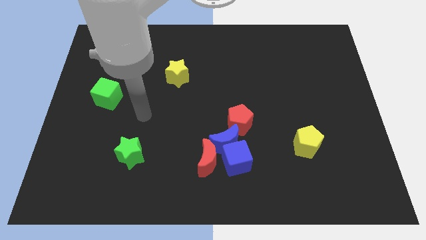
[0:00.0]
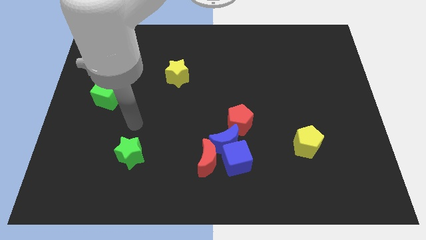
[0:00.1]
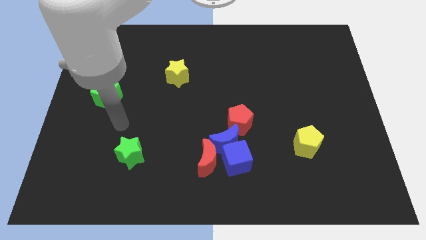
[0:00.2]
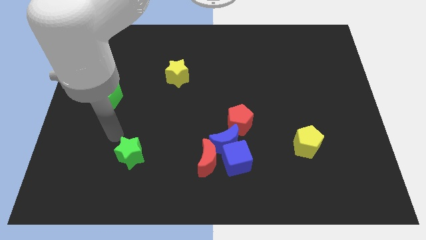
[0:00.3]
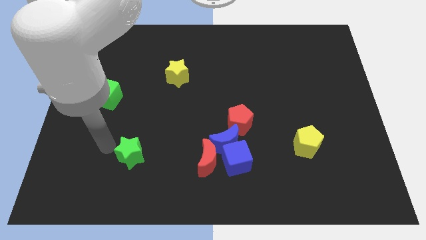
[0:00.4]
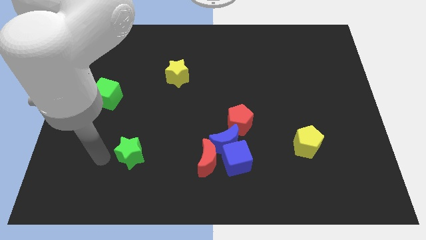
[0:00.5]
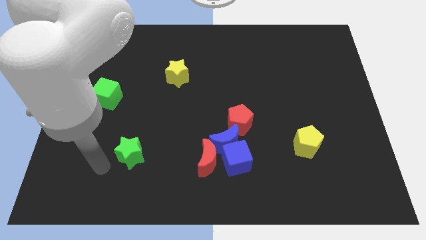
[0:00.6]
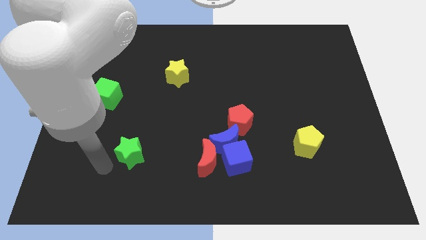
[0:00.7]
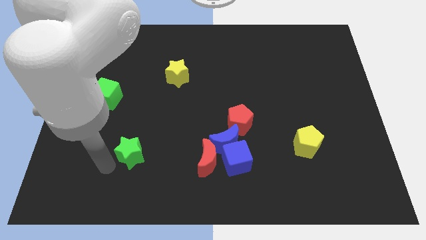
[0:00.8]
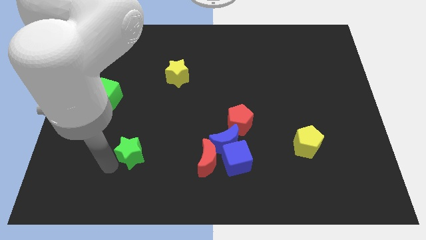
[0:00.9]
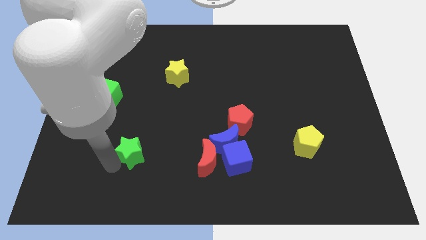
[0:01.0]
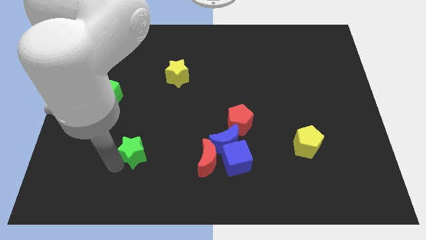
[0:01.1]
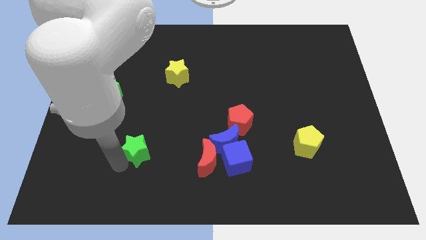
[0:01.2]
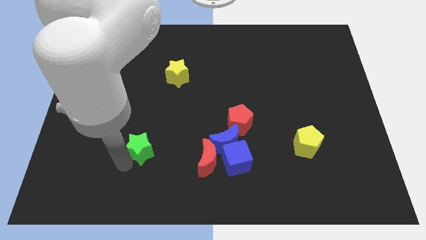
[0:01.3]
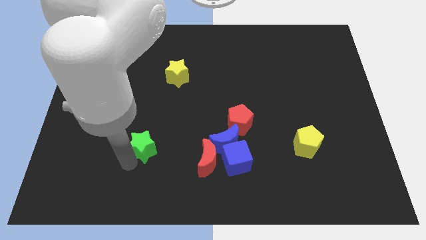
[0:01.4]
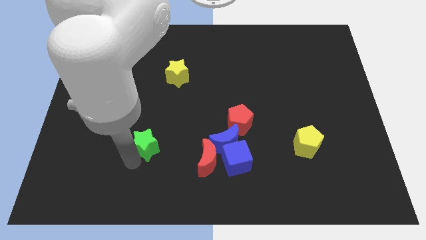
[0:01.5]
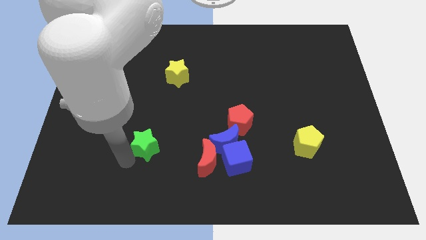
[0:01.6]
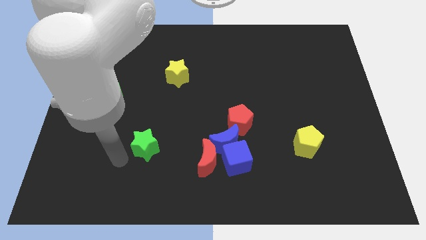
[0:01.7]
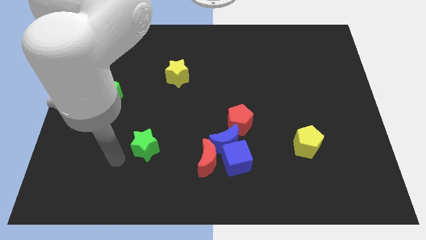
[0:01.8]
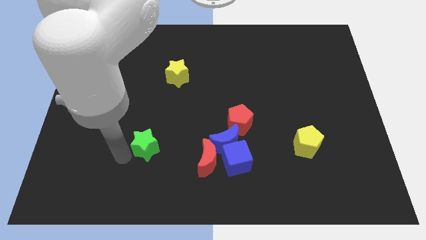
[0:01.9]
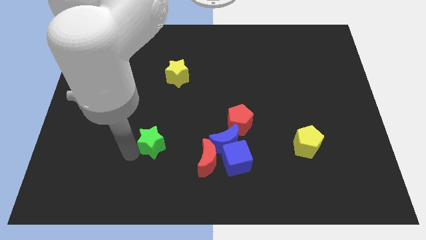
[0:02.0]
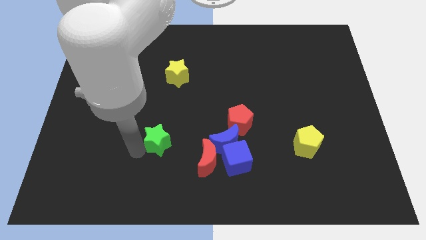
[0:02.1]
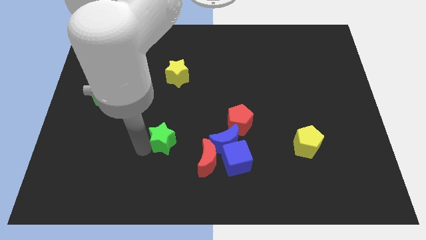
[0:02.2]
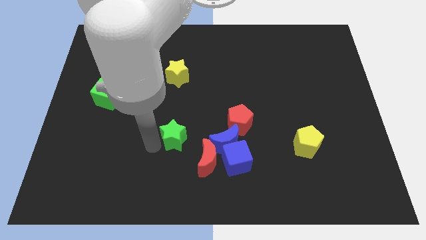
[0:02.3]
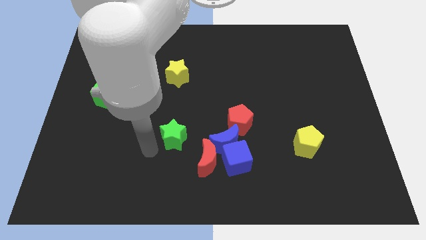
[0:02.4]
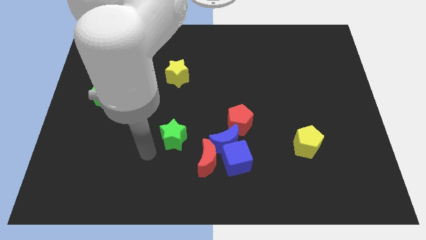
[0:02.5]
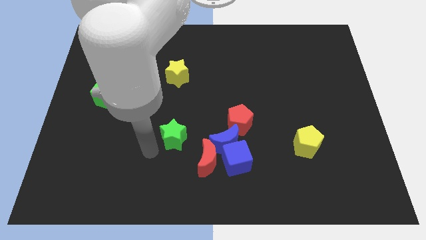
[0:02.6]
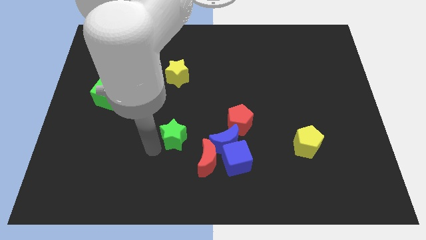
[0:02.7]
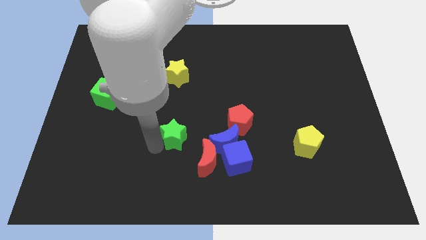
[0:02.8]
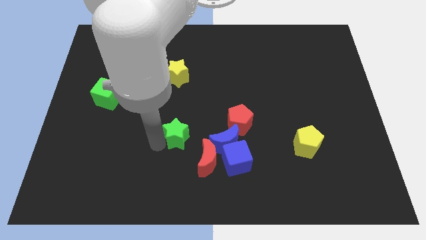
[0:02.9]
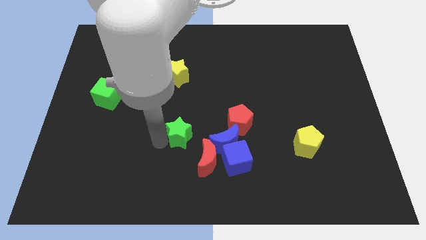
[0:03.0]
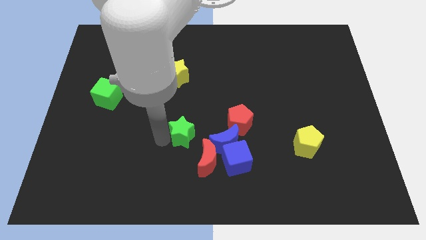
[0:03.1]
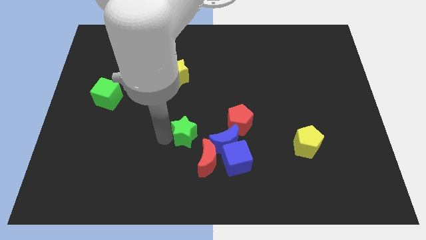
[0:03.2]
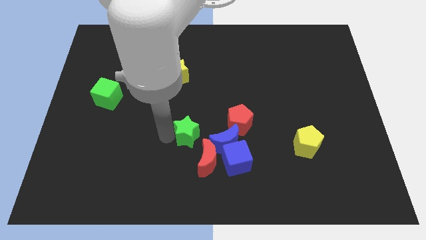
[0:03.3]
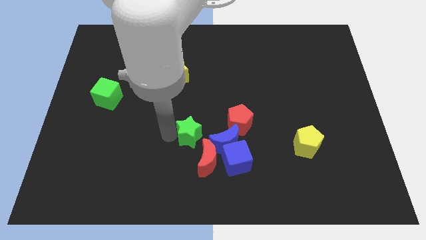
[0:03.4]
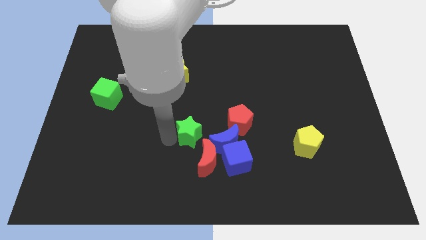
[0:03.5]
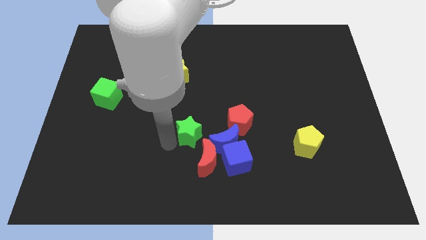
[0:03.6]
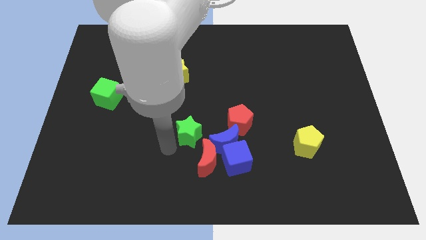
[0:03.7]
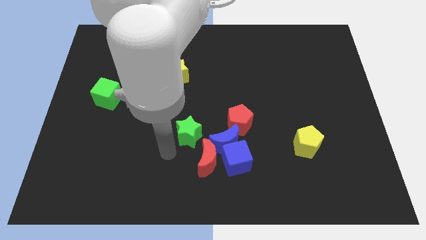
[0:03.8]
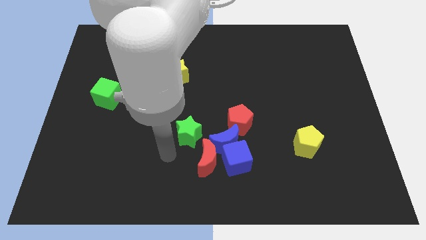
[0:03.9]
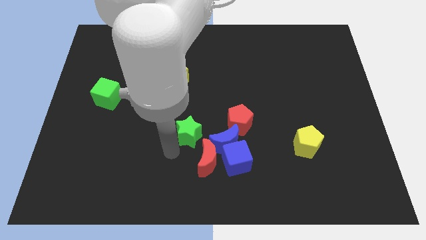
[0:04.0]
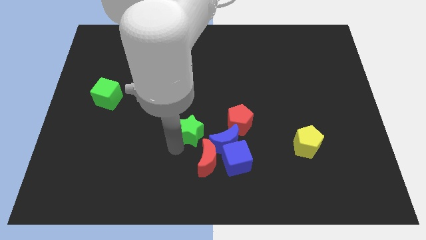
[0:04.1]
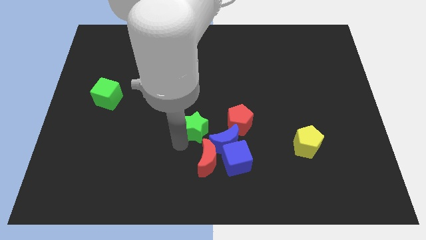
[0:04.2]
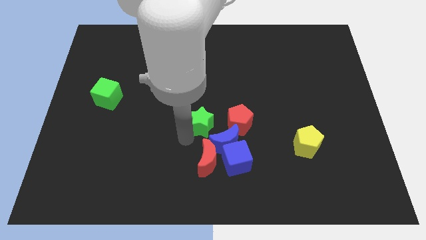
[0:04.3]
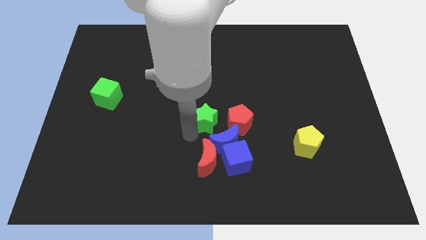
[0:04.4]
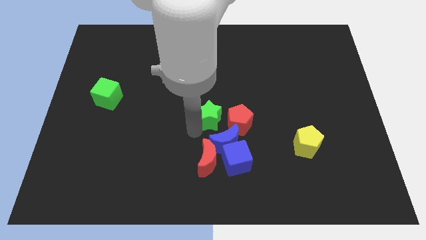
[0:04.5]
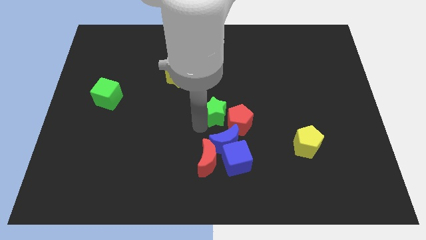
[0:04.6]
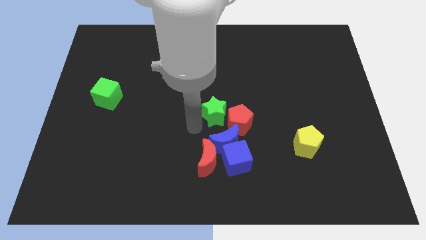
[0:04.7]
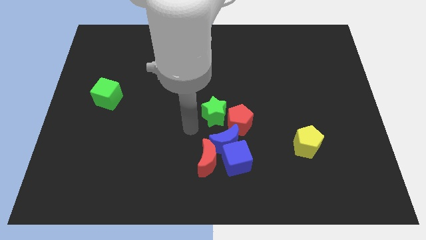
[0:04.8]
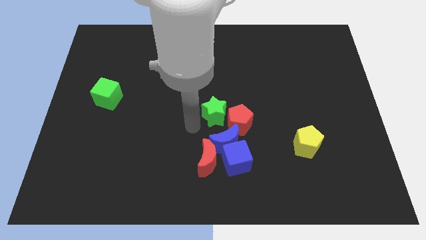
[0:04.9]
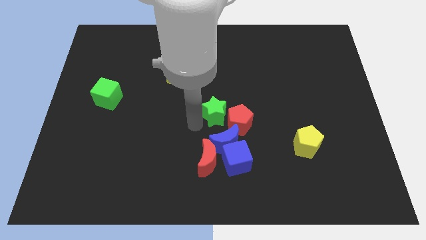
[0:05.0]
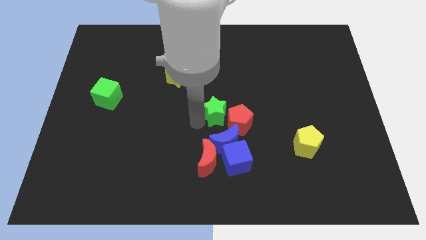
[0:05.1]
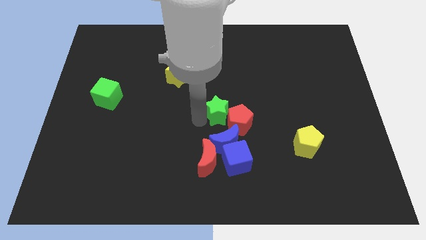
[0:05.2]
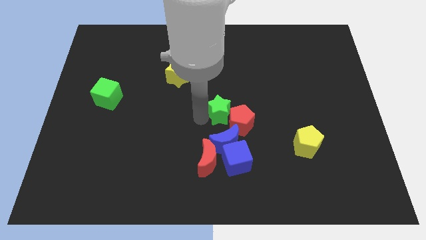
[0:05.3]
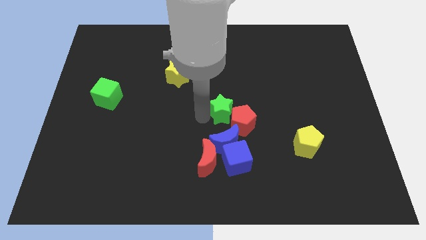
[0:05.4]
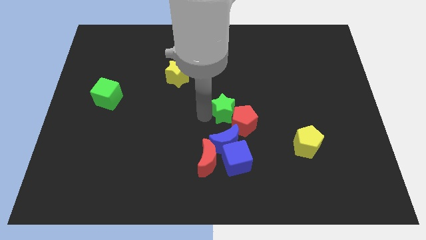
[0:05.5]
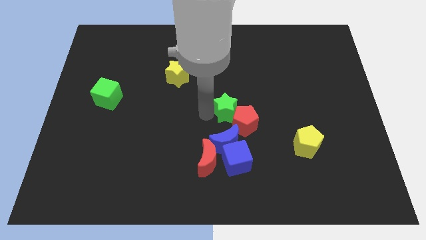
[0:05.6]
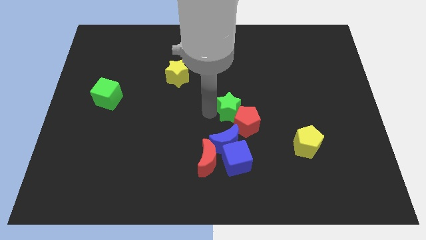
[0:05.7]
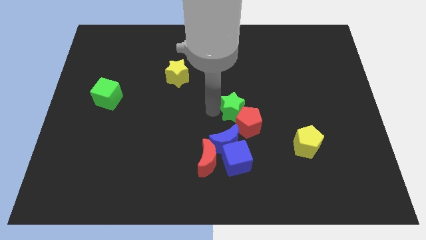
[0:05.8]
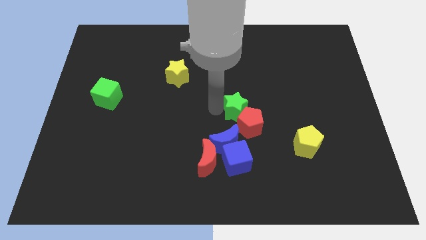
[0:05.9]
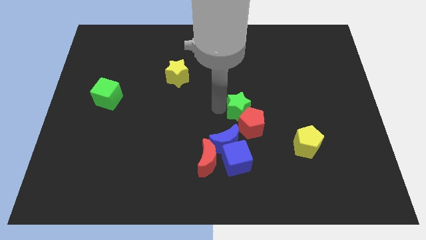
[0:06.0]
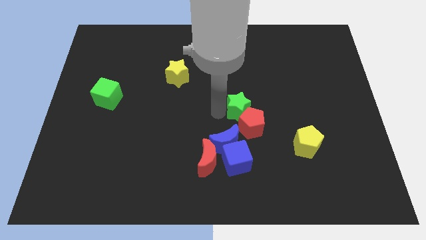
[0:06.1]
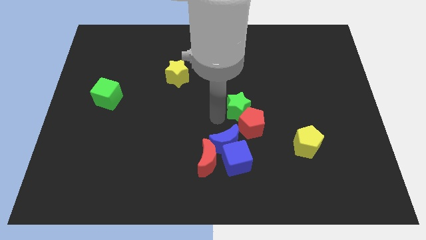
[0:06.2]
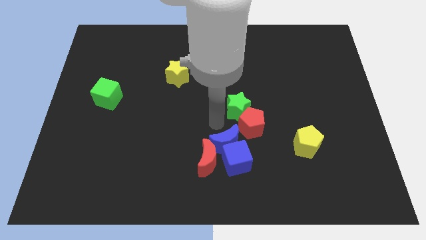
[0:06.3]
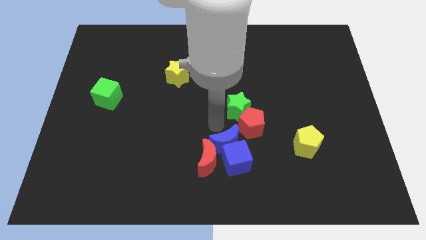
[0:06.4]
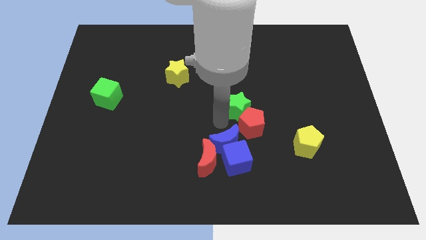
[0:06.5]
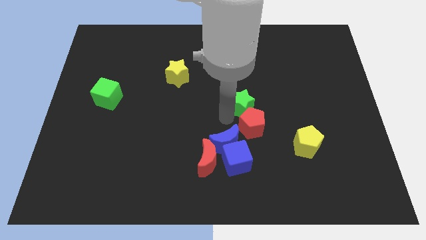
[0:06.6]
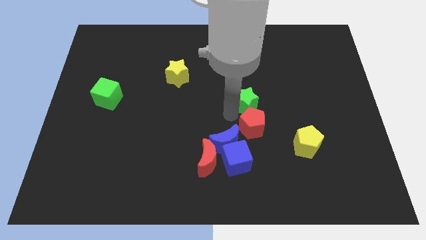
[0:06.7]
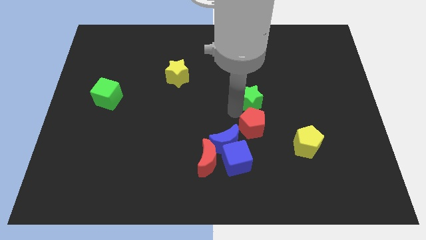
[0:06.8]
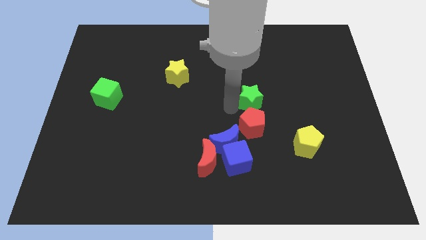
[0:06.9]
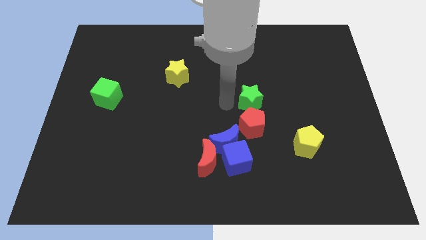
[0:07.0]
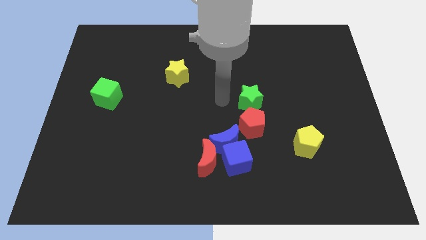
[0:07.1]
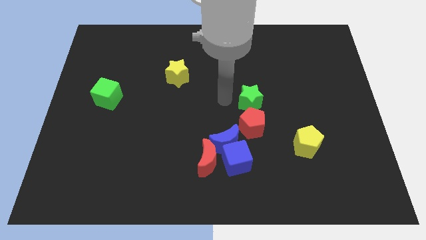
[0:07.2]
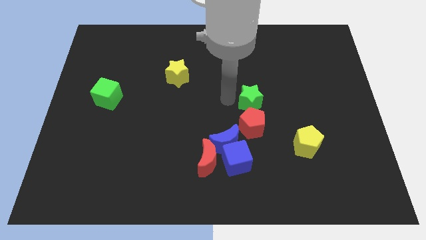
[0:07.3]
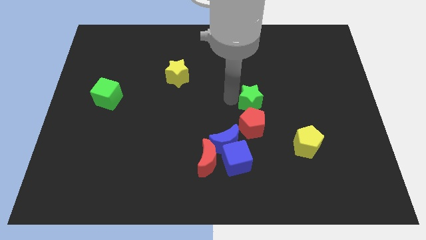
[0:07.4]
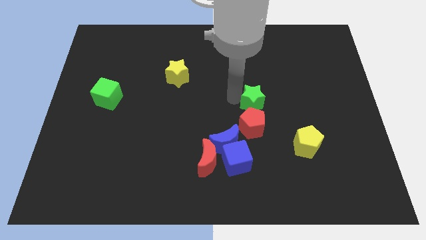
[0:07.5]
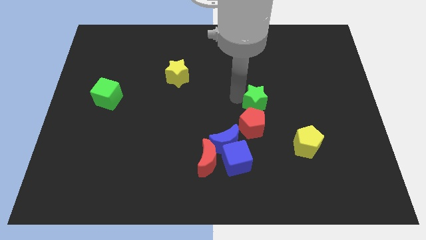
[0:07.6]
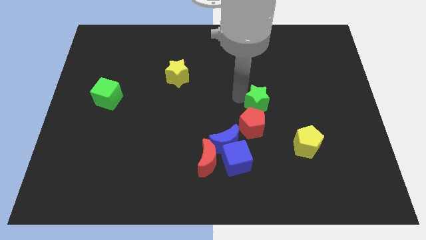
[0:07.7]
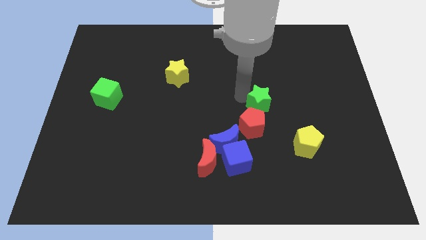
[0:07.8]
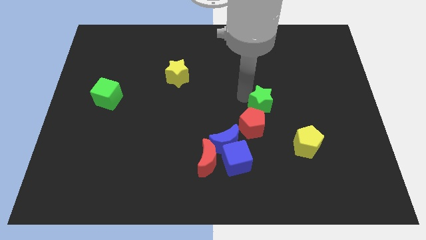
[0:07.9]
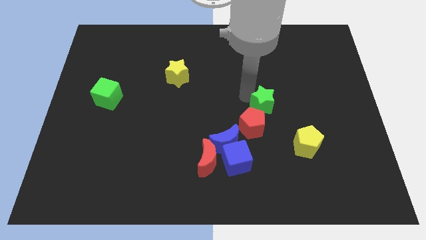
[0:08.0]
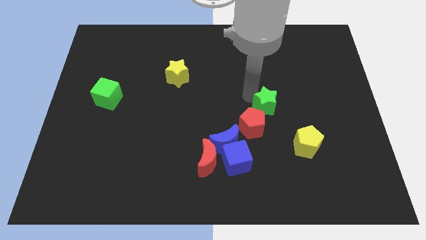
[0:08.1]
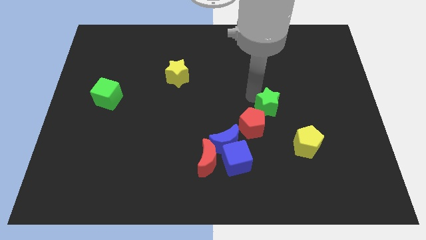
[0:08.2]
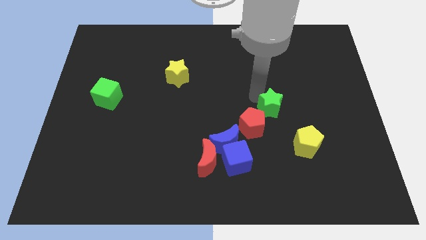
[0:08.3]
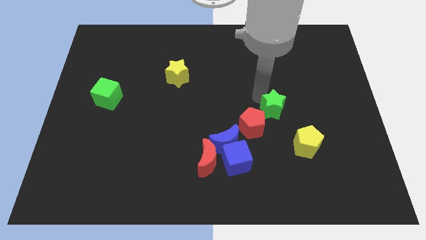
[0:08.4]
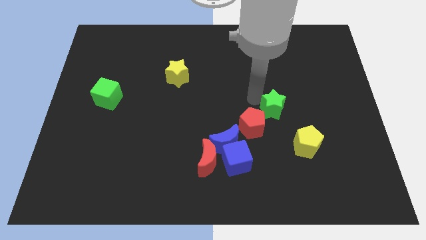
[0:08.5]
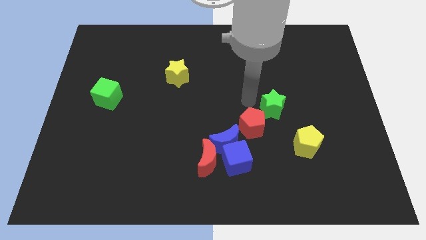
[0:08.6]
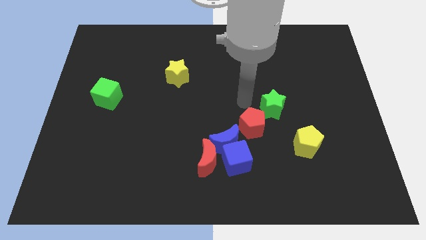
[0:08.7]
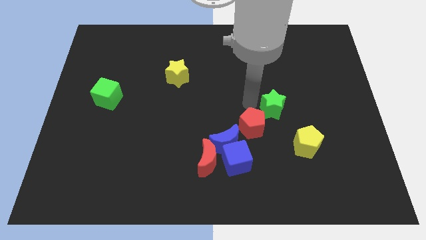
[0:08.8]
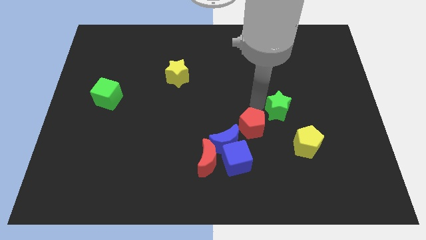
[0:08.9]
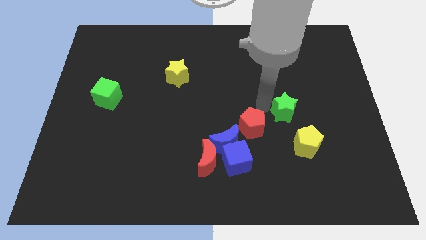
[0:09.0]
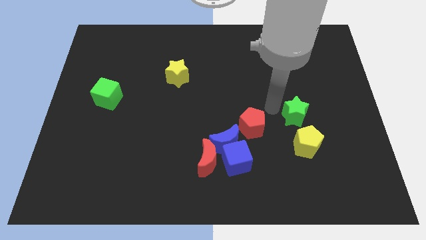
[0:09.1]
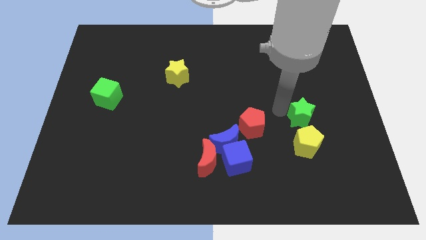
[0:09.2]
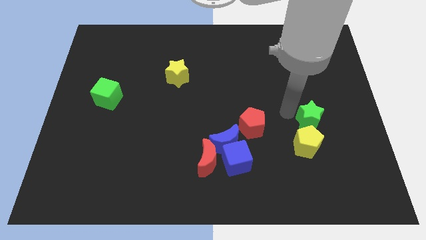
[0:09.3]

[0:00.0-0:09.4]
push the green star to the top right side of the yellow pentagon
